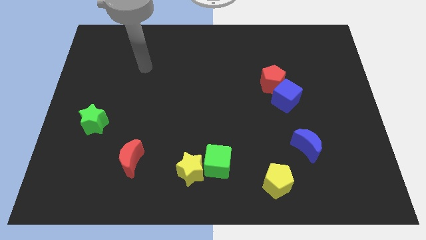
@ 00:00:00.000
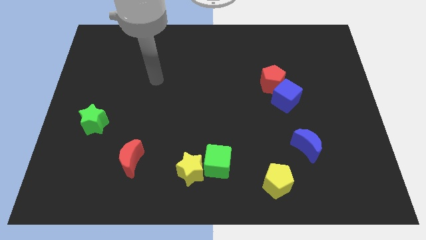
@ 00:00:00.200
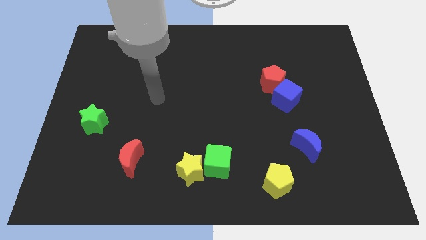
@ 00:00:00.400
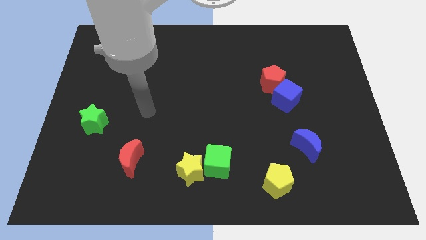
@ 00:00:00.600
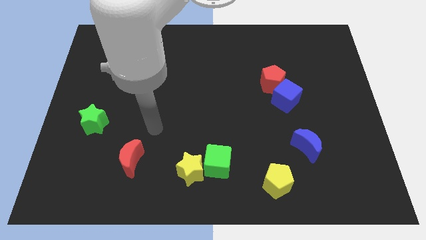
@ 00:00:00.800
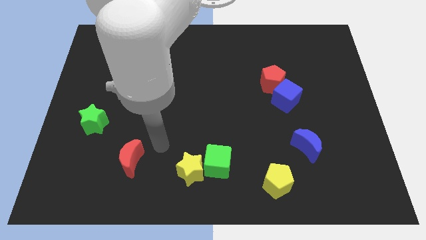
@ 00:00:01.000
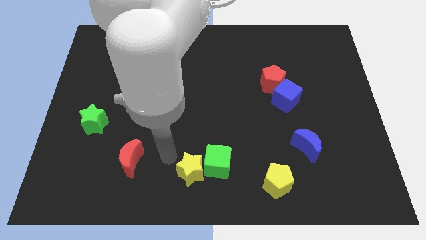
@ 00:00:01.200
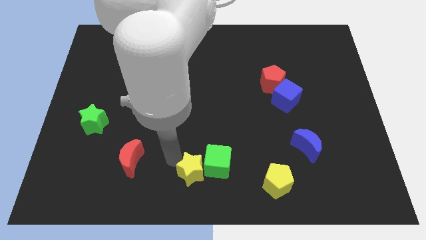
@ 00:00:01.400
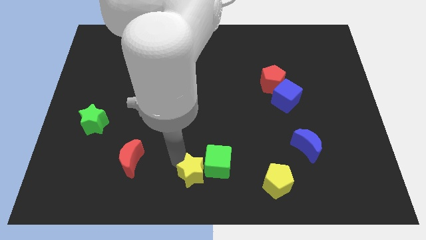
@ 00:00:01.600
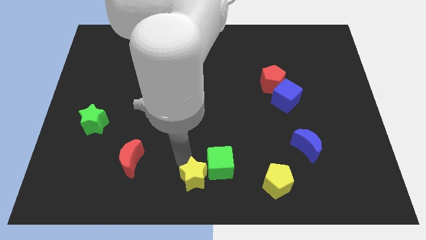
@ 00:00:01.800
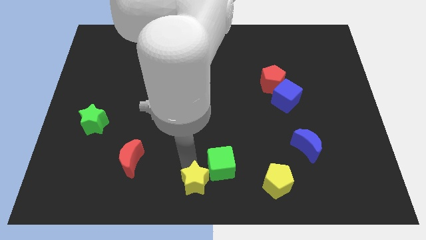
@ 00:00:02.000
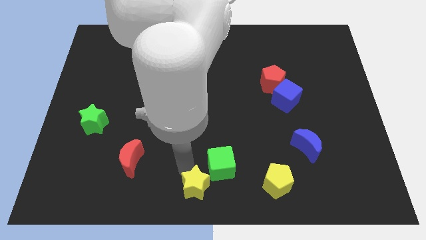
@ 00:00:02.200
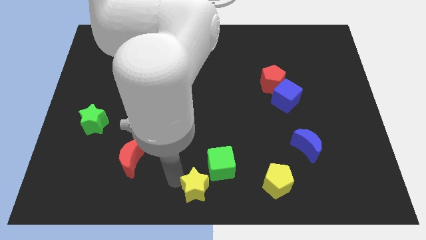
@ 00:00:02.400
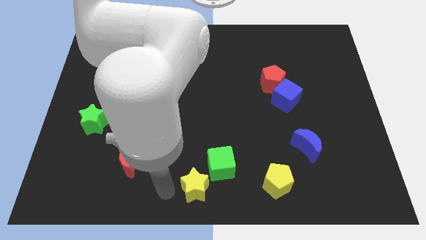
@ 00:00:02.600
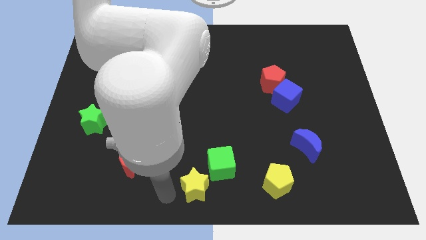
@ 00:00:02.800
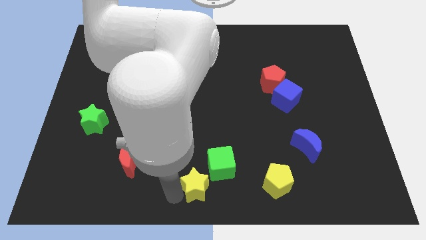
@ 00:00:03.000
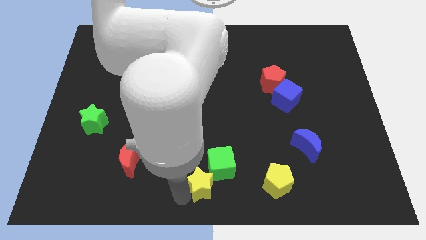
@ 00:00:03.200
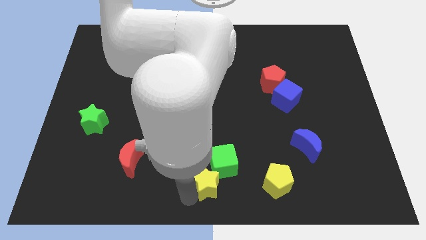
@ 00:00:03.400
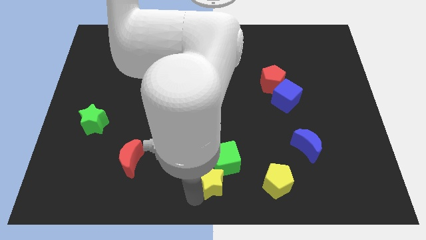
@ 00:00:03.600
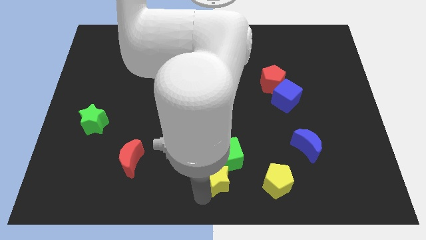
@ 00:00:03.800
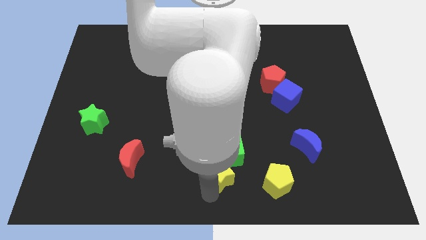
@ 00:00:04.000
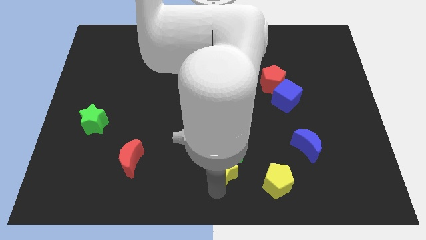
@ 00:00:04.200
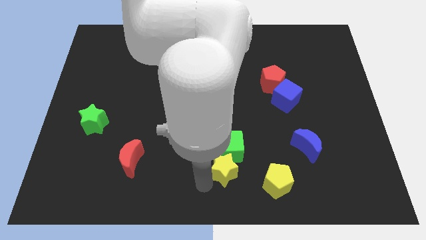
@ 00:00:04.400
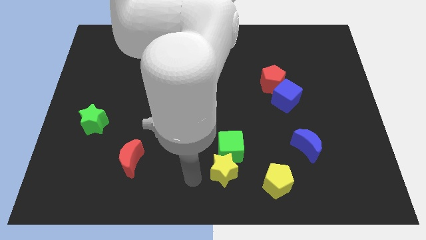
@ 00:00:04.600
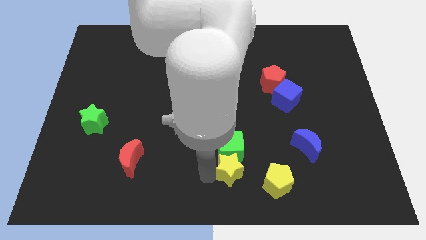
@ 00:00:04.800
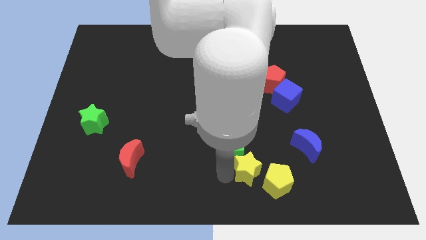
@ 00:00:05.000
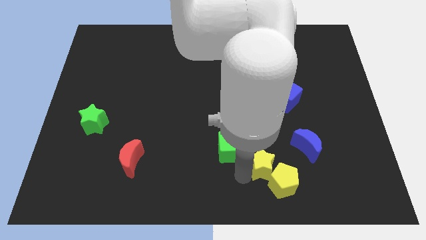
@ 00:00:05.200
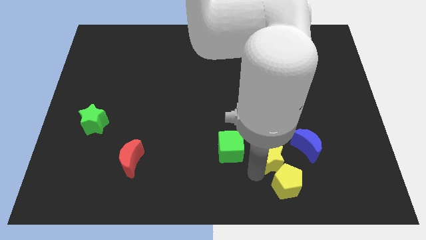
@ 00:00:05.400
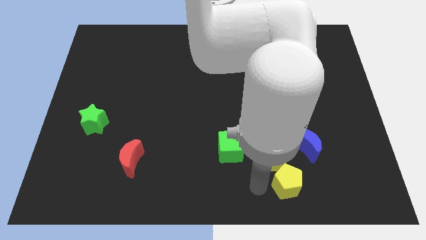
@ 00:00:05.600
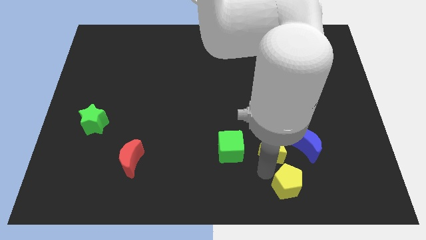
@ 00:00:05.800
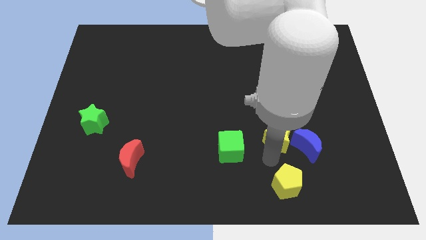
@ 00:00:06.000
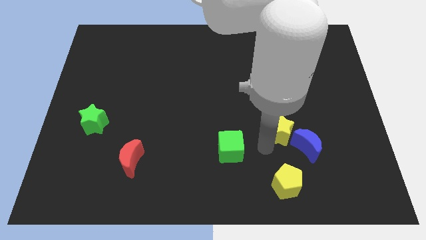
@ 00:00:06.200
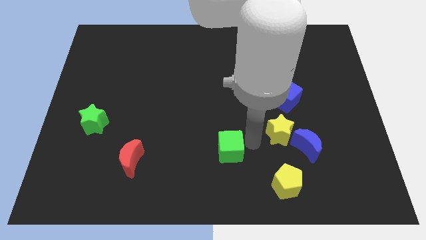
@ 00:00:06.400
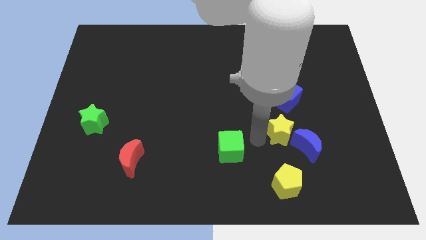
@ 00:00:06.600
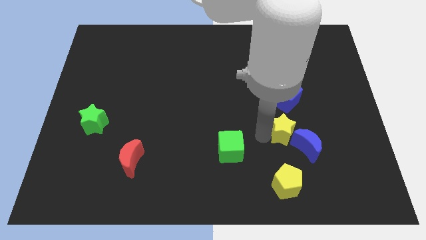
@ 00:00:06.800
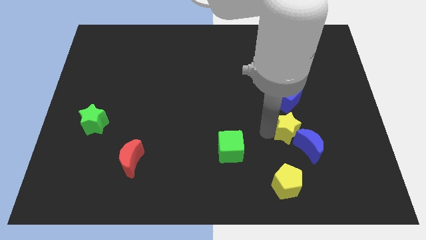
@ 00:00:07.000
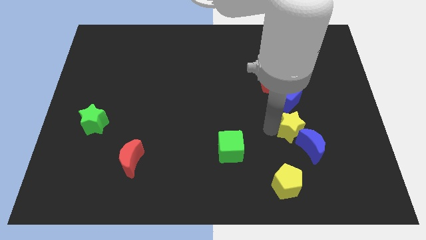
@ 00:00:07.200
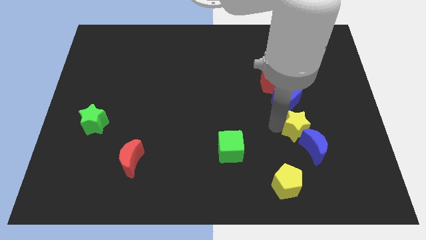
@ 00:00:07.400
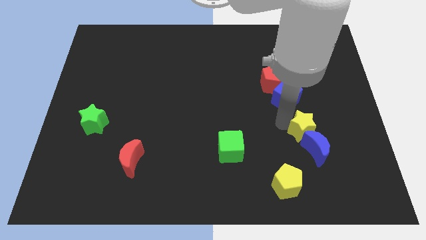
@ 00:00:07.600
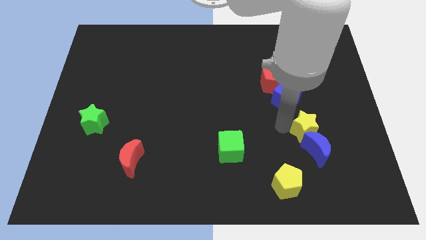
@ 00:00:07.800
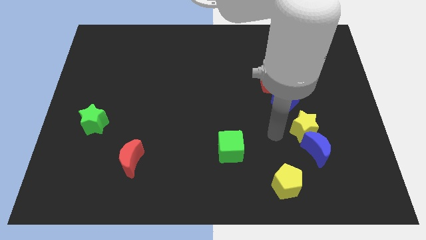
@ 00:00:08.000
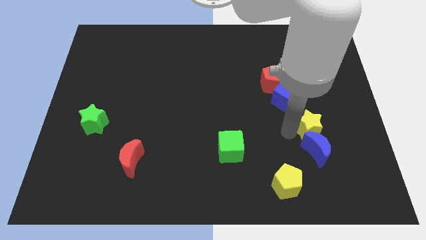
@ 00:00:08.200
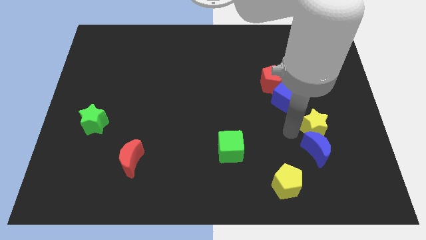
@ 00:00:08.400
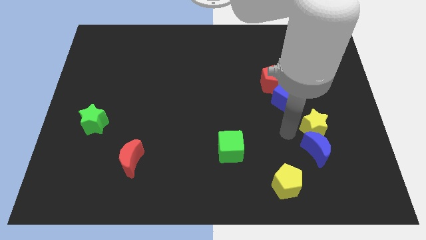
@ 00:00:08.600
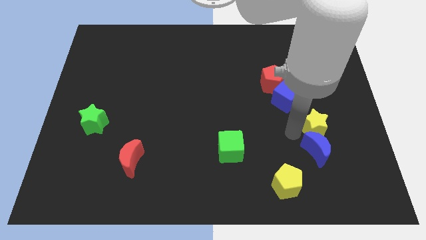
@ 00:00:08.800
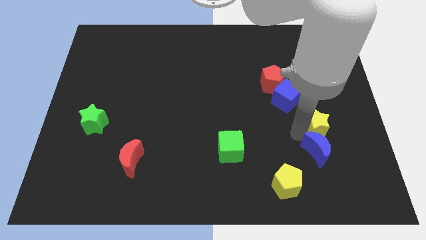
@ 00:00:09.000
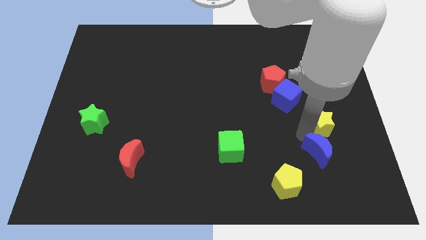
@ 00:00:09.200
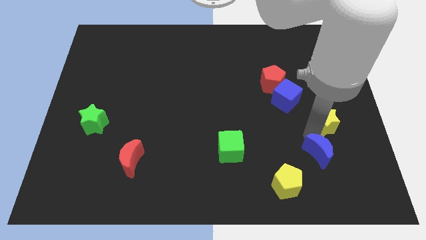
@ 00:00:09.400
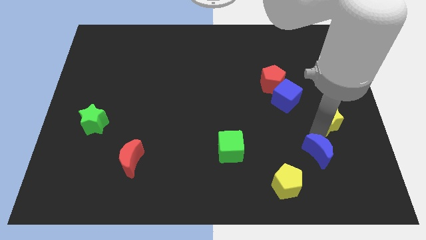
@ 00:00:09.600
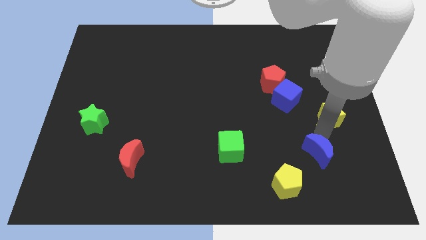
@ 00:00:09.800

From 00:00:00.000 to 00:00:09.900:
put the yellow star to the right side of the board

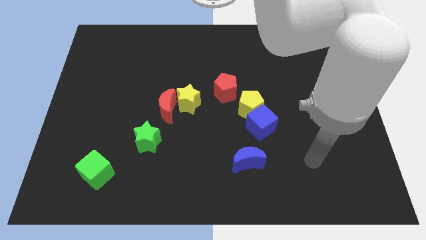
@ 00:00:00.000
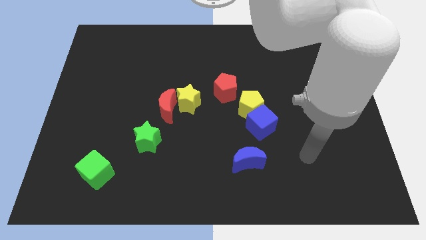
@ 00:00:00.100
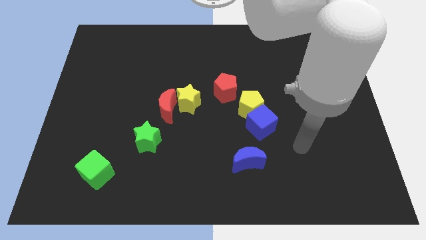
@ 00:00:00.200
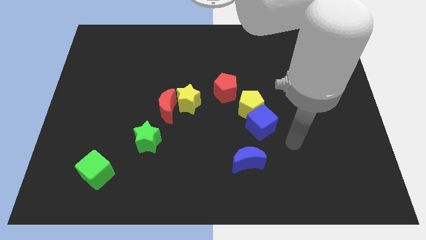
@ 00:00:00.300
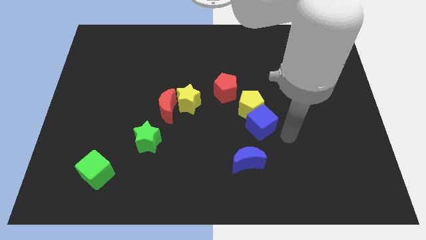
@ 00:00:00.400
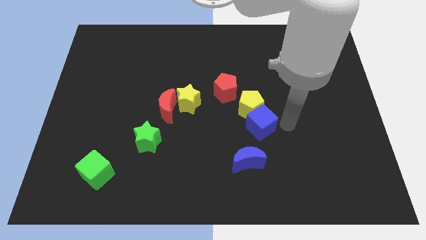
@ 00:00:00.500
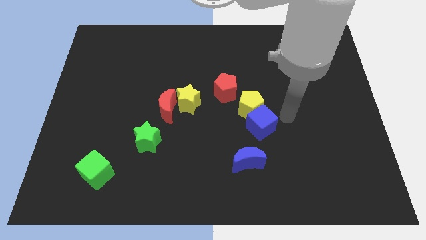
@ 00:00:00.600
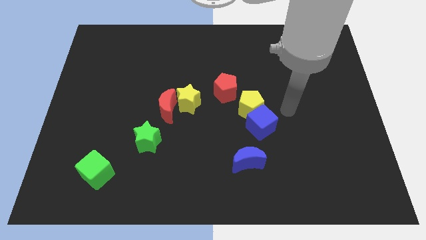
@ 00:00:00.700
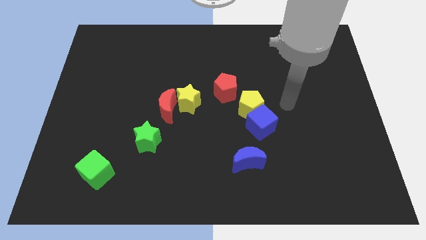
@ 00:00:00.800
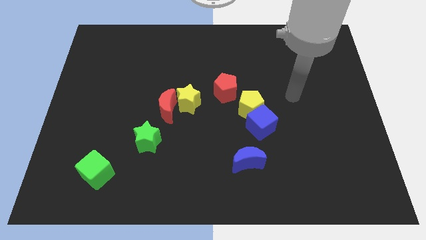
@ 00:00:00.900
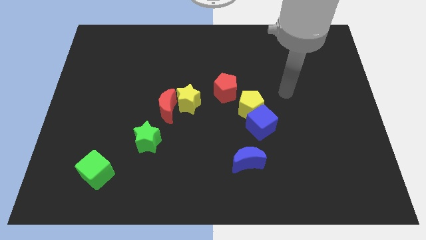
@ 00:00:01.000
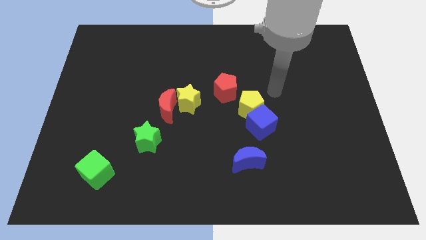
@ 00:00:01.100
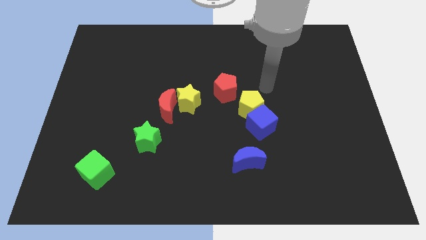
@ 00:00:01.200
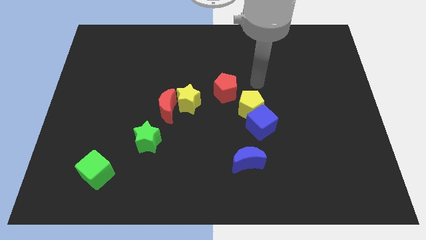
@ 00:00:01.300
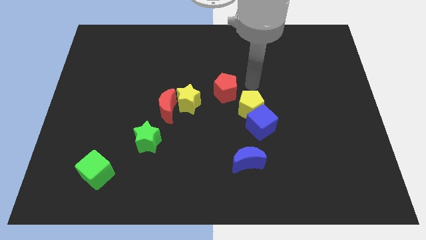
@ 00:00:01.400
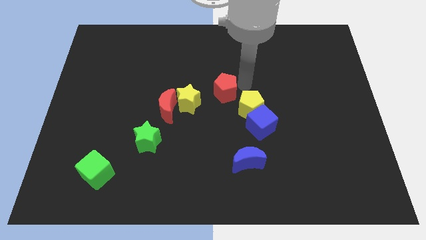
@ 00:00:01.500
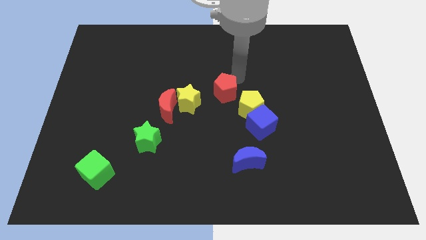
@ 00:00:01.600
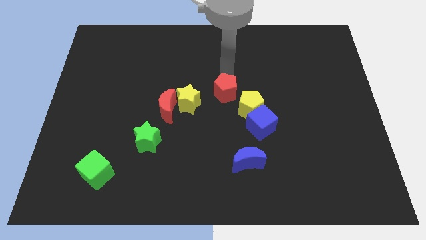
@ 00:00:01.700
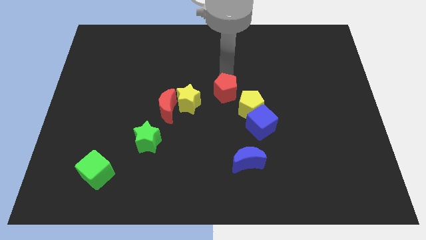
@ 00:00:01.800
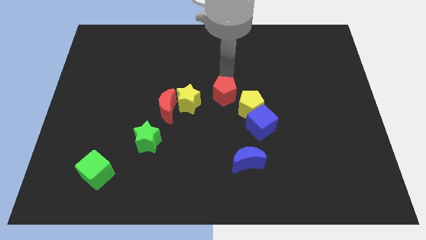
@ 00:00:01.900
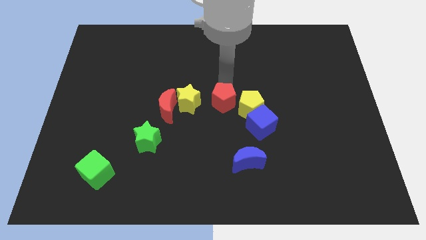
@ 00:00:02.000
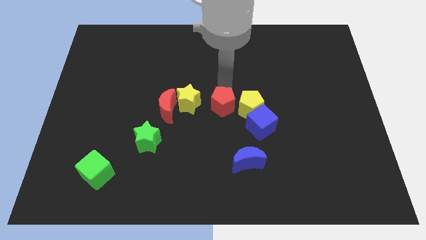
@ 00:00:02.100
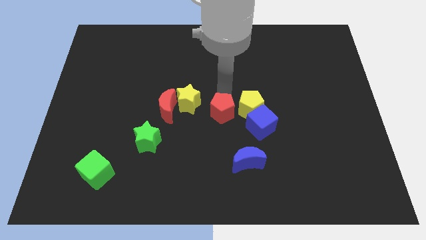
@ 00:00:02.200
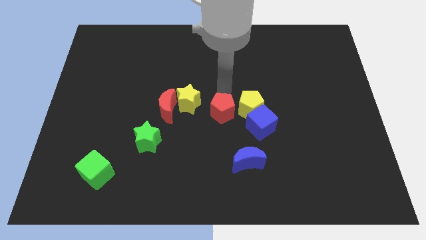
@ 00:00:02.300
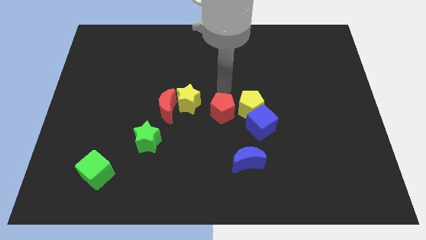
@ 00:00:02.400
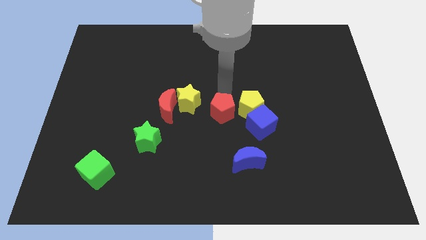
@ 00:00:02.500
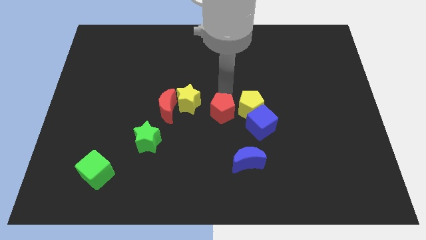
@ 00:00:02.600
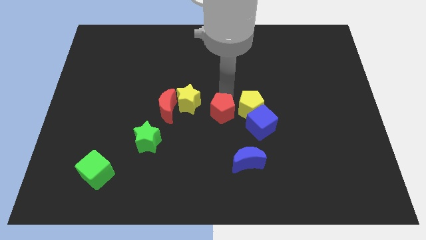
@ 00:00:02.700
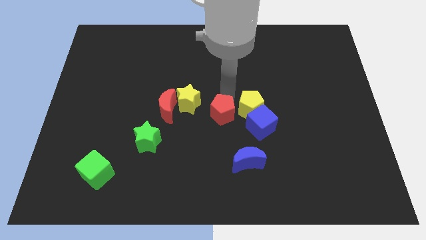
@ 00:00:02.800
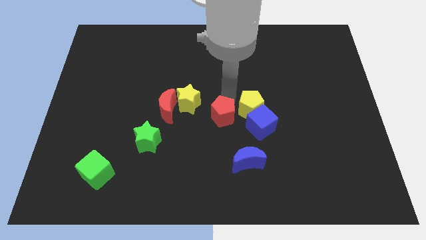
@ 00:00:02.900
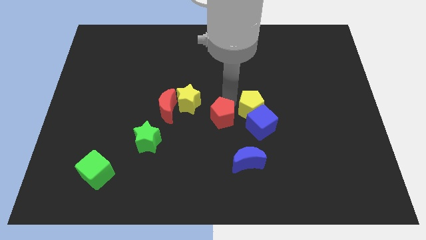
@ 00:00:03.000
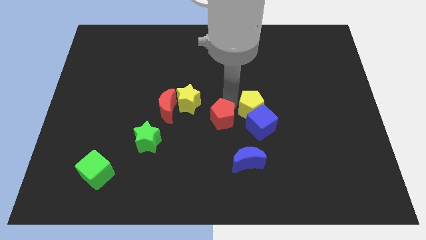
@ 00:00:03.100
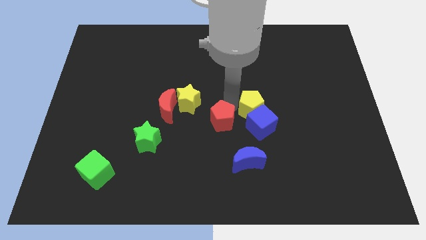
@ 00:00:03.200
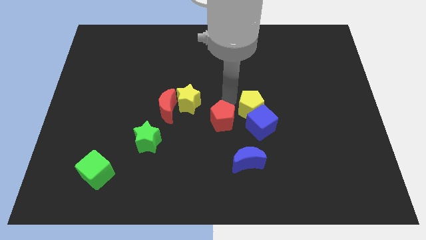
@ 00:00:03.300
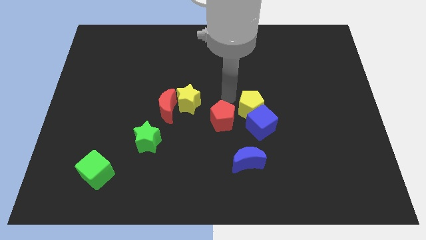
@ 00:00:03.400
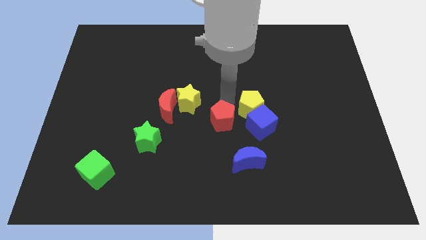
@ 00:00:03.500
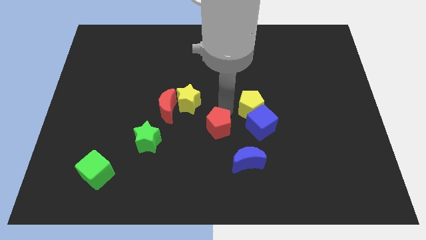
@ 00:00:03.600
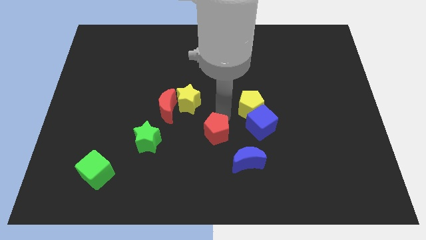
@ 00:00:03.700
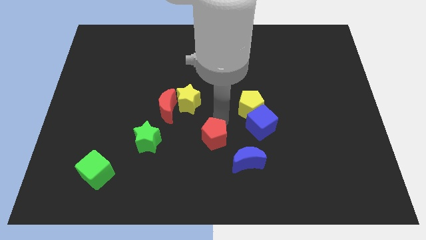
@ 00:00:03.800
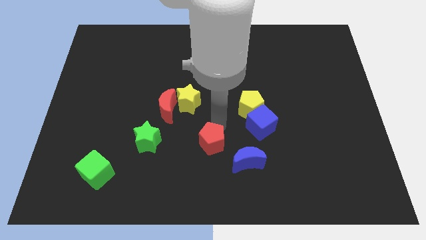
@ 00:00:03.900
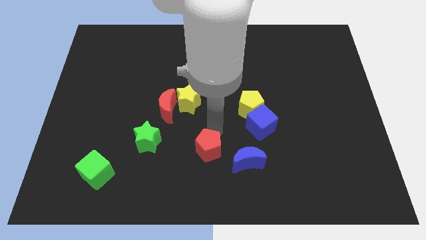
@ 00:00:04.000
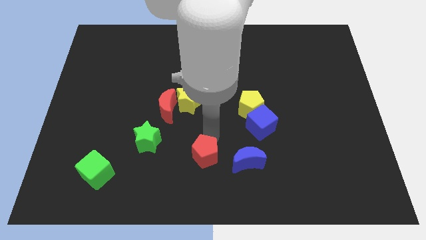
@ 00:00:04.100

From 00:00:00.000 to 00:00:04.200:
push the red pentagon to the bottom
